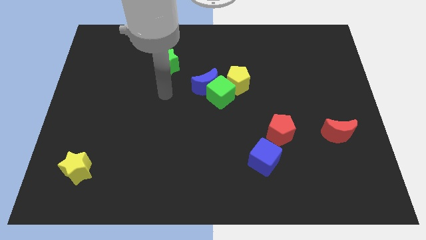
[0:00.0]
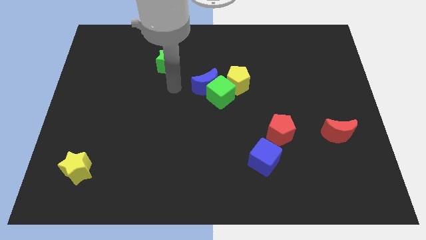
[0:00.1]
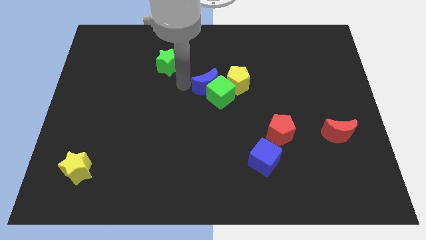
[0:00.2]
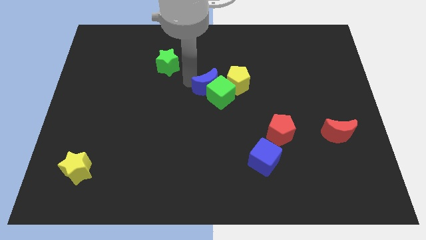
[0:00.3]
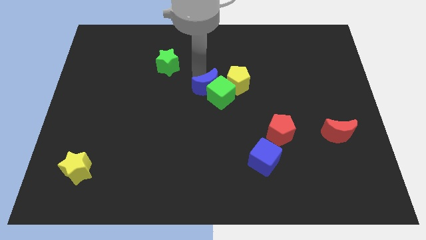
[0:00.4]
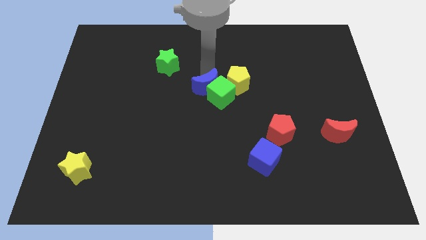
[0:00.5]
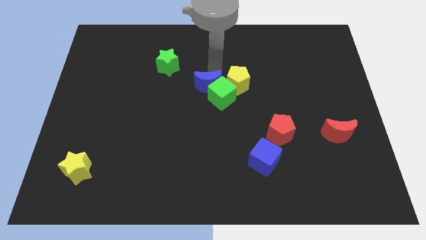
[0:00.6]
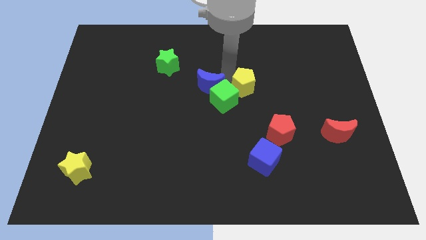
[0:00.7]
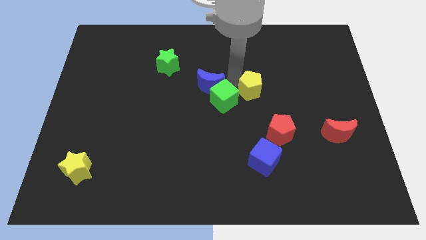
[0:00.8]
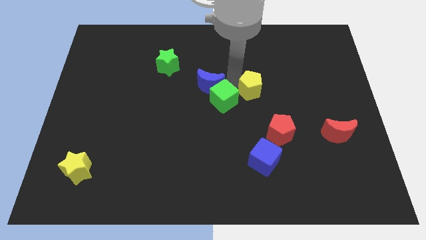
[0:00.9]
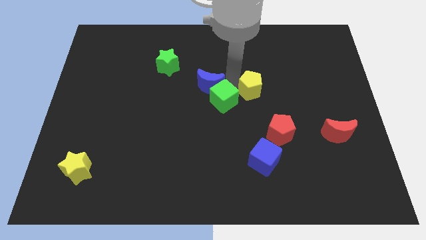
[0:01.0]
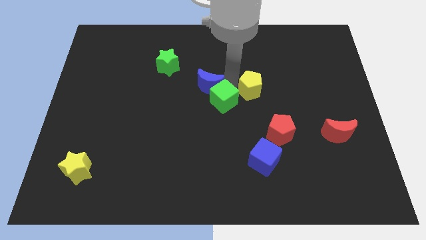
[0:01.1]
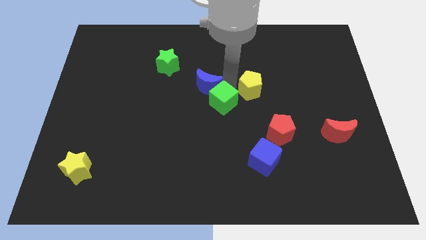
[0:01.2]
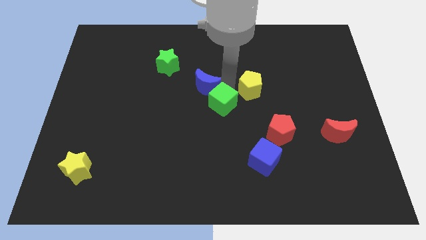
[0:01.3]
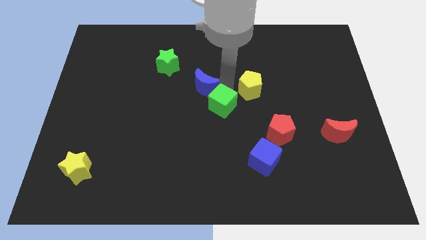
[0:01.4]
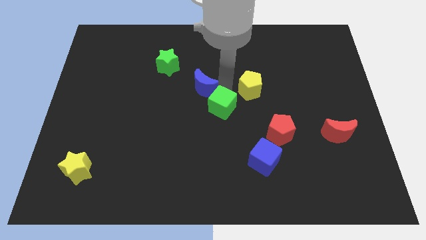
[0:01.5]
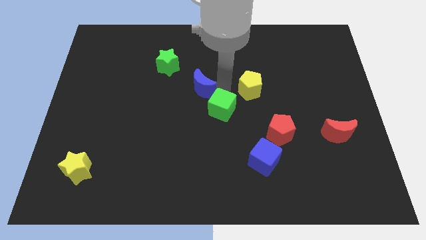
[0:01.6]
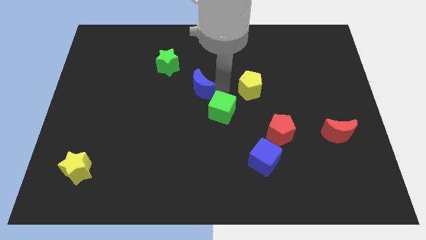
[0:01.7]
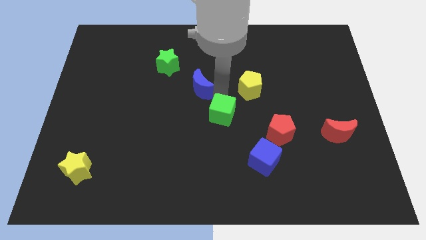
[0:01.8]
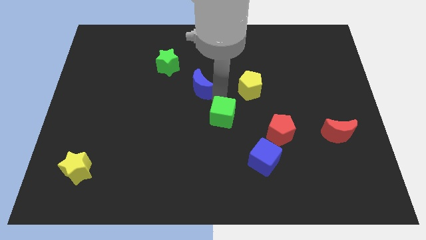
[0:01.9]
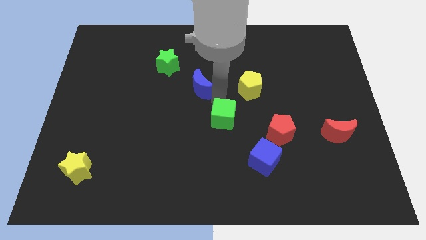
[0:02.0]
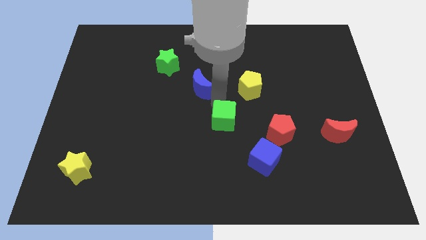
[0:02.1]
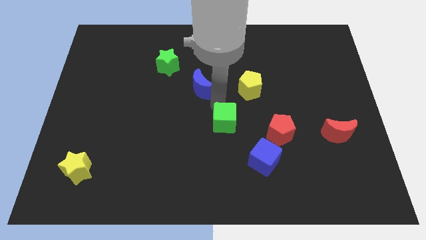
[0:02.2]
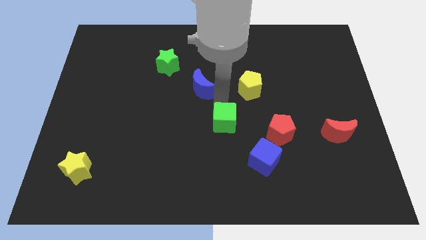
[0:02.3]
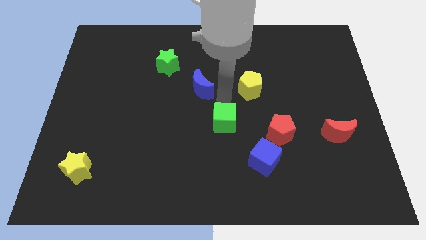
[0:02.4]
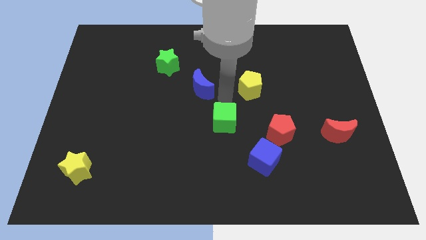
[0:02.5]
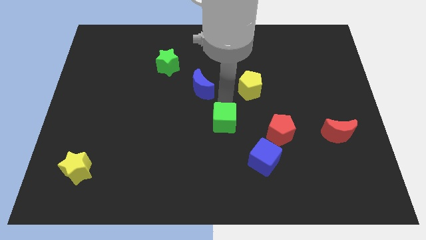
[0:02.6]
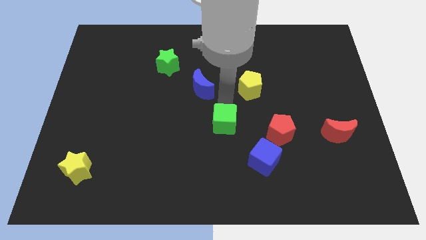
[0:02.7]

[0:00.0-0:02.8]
move the green cube away from the blue moon and yellow pentagon

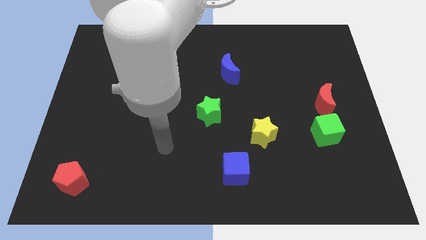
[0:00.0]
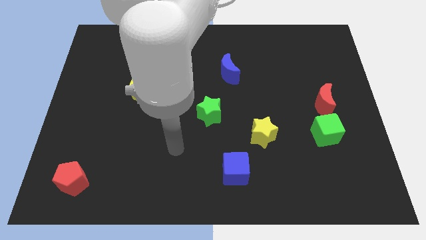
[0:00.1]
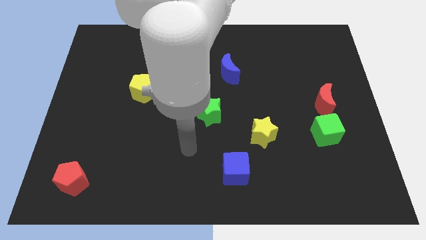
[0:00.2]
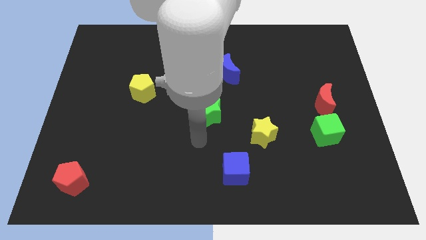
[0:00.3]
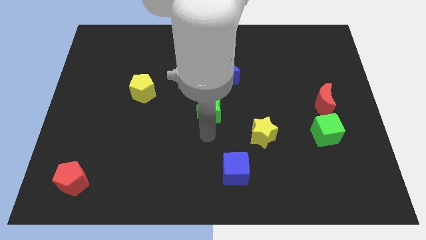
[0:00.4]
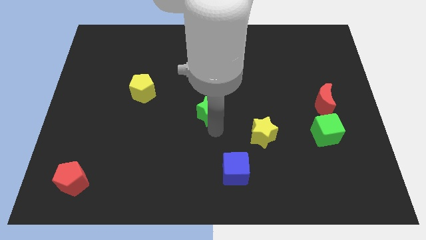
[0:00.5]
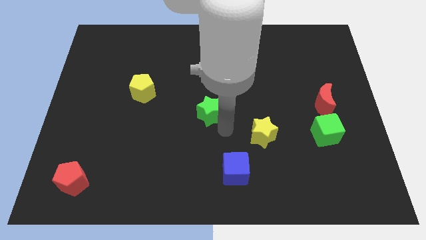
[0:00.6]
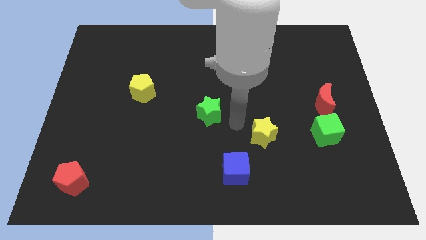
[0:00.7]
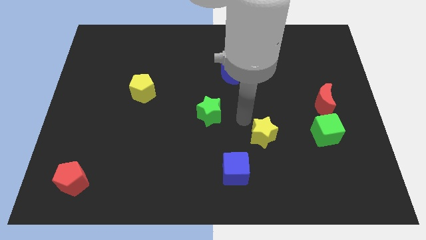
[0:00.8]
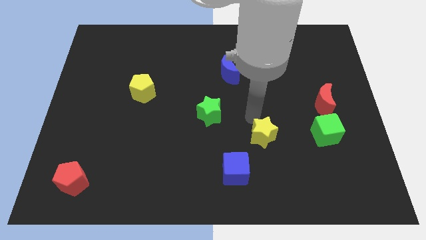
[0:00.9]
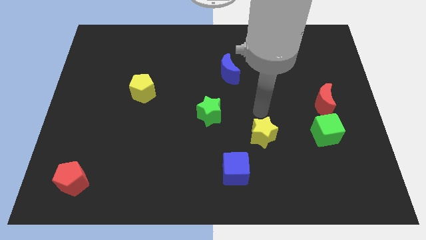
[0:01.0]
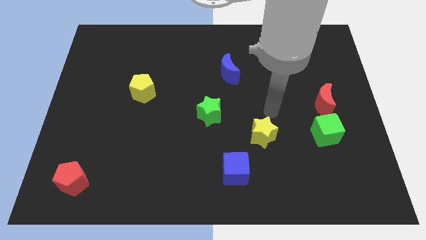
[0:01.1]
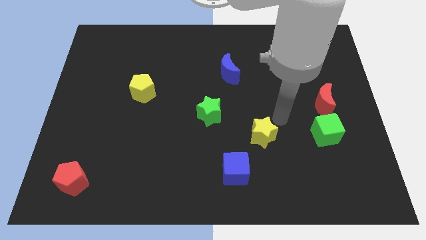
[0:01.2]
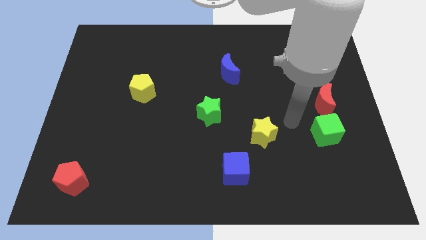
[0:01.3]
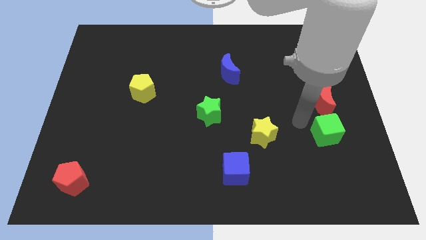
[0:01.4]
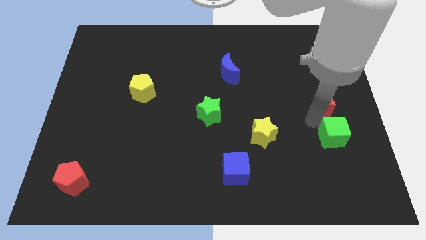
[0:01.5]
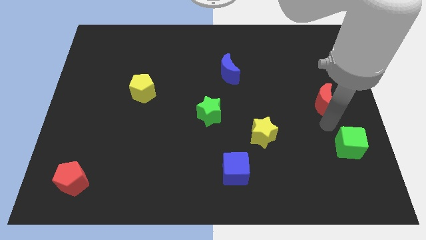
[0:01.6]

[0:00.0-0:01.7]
separate the red moon from the green cube

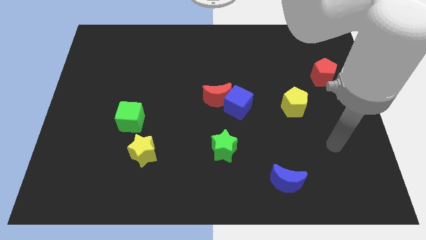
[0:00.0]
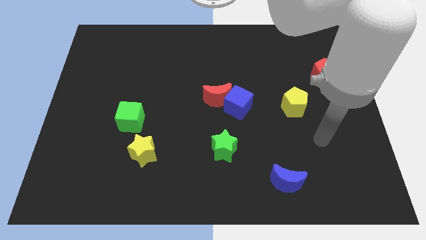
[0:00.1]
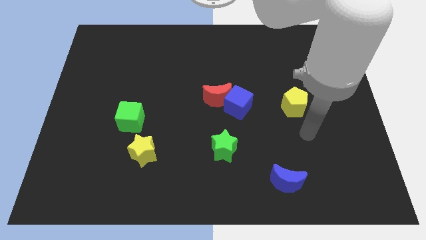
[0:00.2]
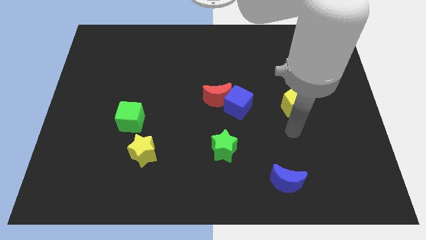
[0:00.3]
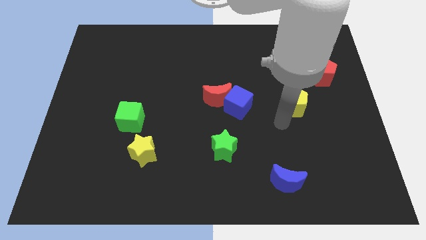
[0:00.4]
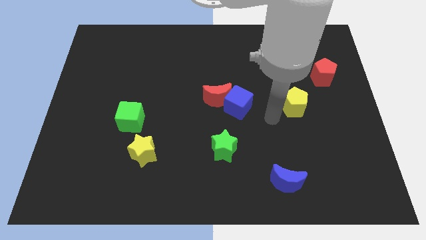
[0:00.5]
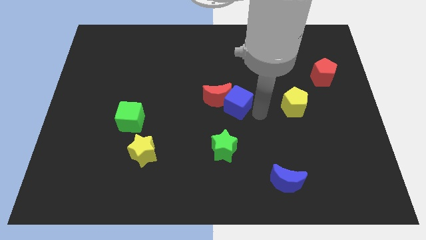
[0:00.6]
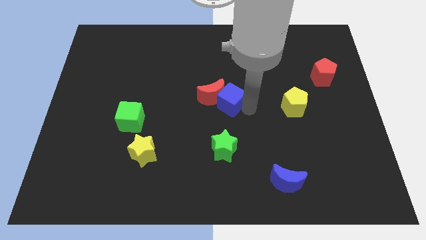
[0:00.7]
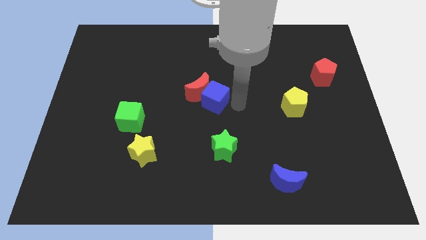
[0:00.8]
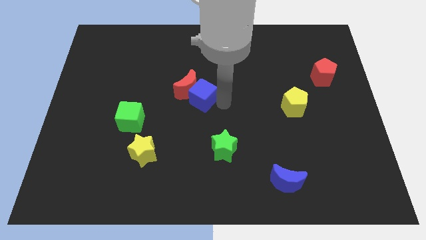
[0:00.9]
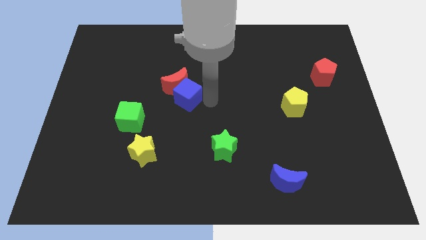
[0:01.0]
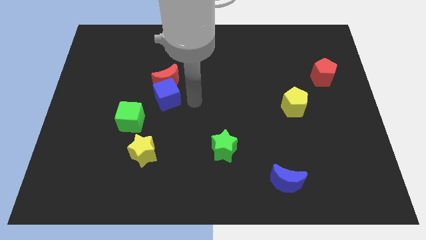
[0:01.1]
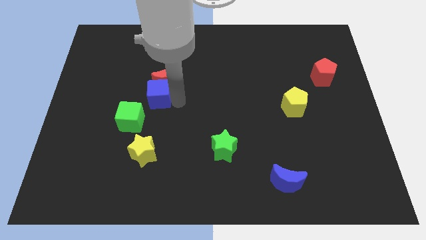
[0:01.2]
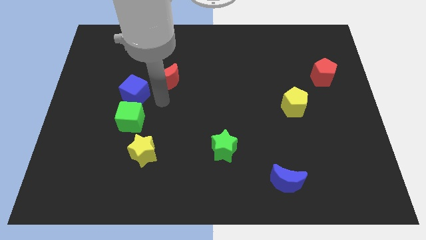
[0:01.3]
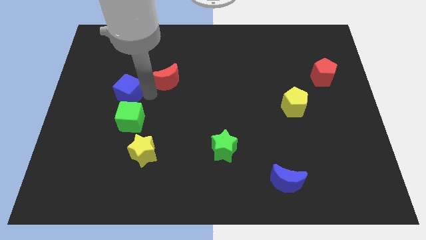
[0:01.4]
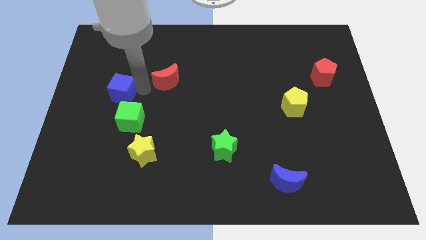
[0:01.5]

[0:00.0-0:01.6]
pull the red moon apart from the blue cube

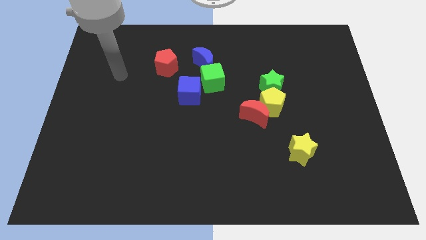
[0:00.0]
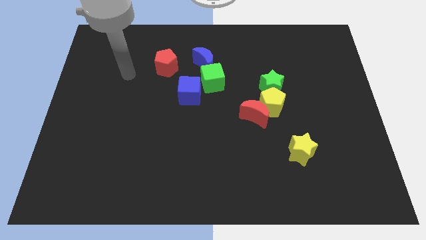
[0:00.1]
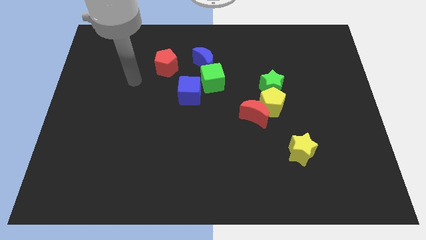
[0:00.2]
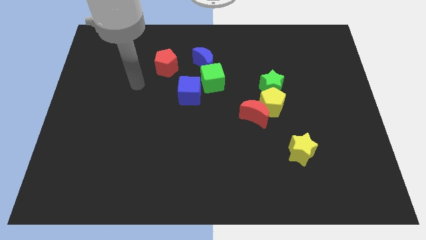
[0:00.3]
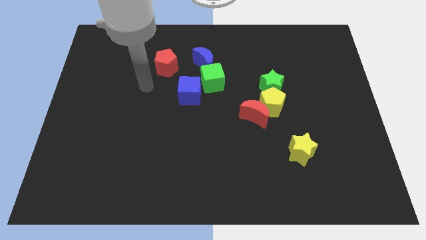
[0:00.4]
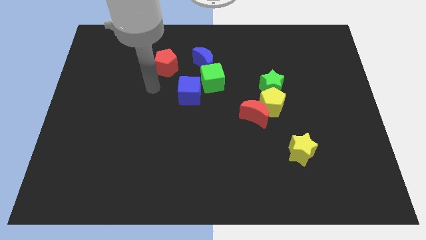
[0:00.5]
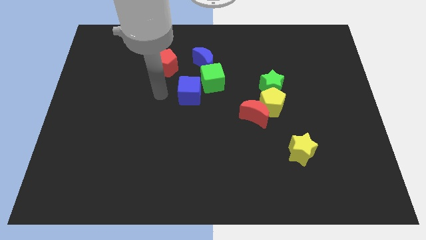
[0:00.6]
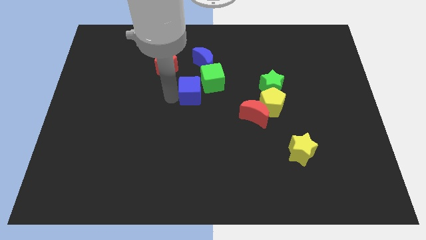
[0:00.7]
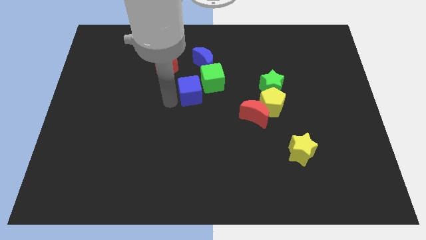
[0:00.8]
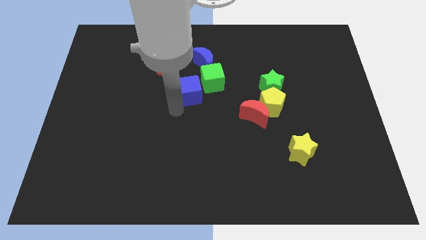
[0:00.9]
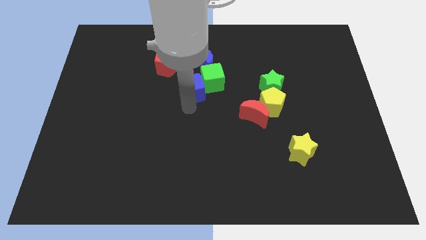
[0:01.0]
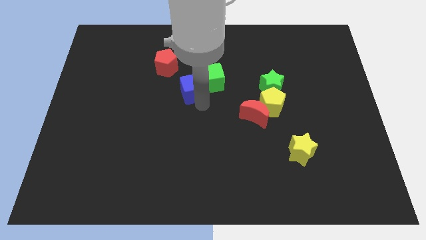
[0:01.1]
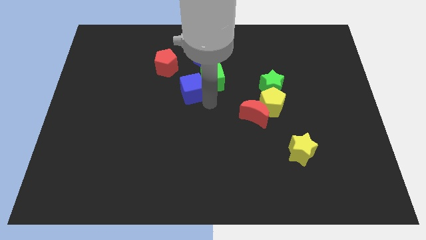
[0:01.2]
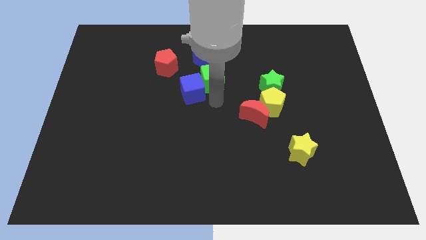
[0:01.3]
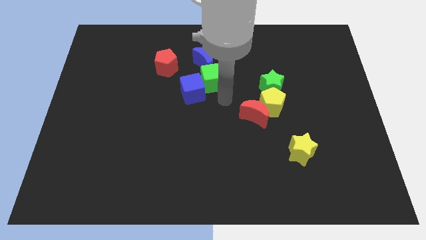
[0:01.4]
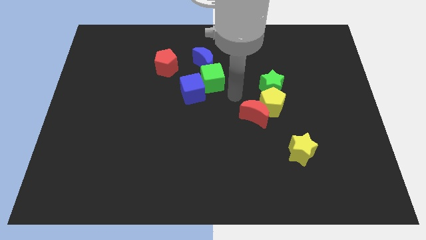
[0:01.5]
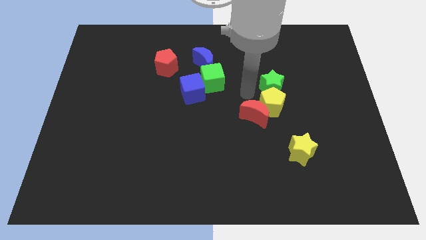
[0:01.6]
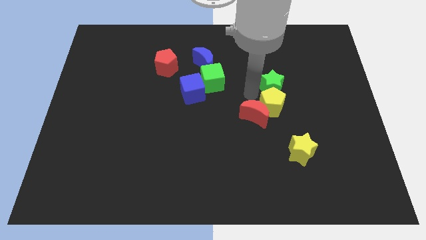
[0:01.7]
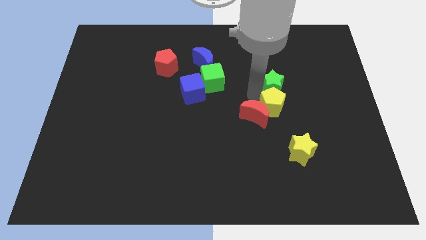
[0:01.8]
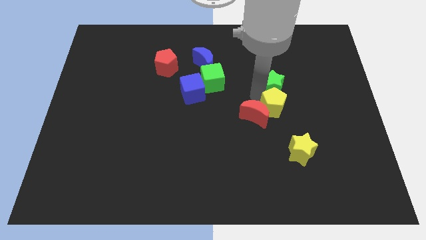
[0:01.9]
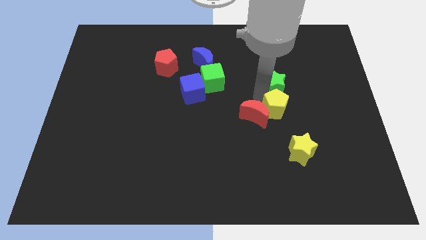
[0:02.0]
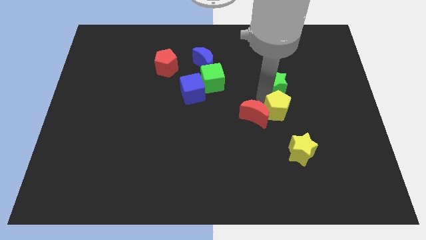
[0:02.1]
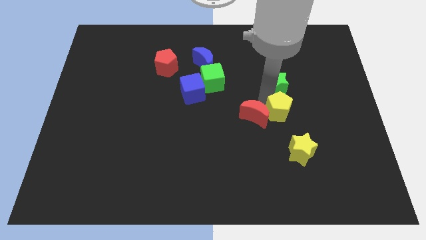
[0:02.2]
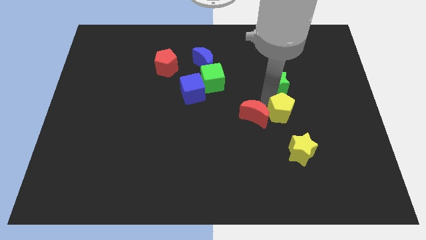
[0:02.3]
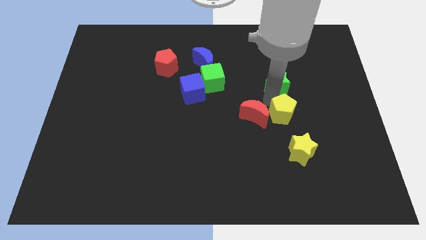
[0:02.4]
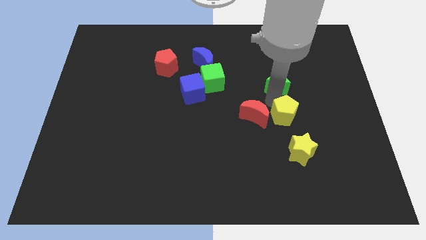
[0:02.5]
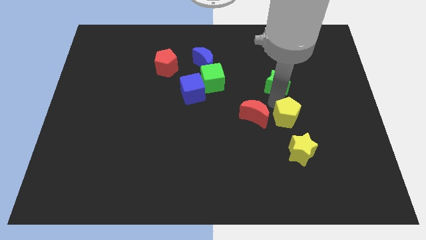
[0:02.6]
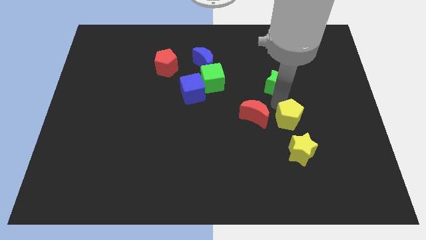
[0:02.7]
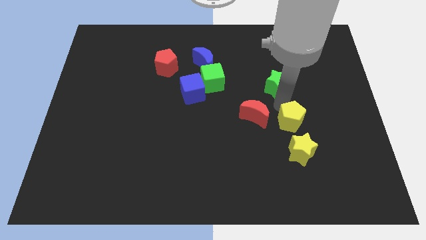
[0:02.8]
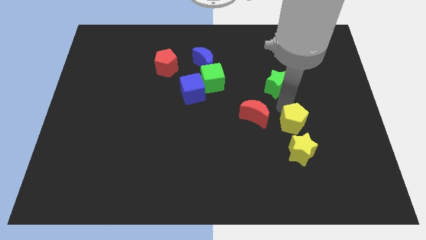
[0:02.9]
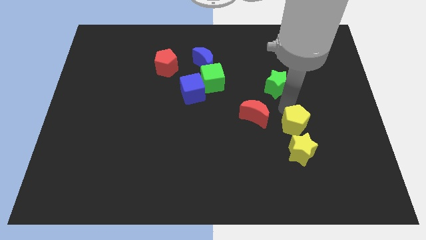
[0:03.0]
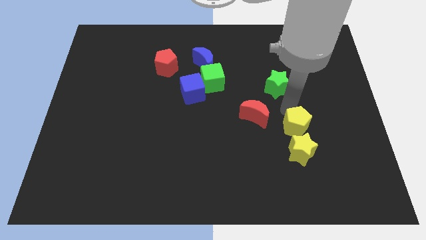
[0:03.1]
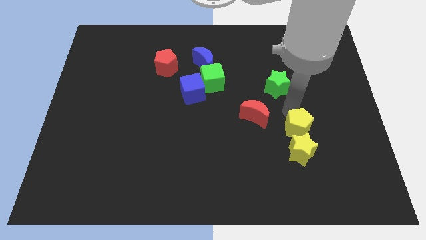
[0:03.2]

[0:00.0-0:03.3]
separate the yellow pentagon from the red moon and green star
